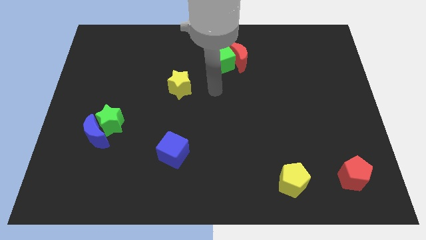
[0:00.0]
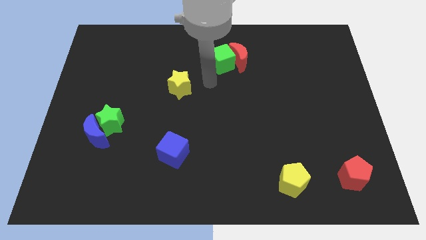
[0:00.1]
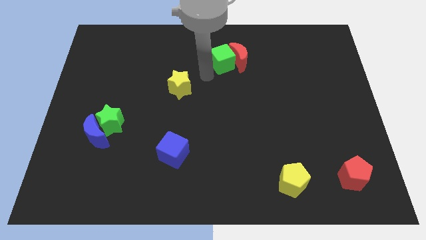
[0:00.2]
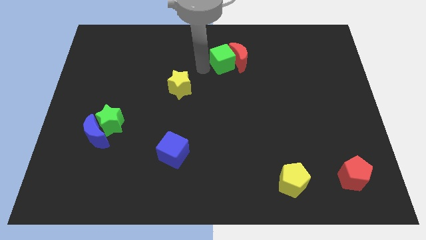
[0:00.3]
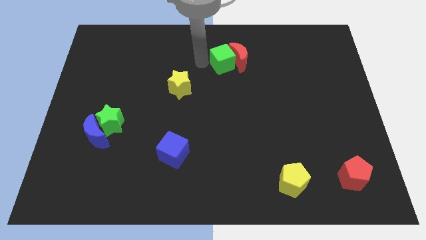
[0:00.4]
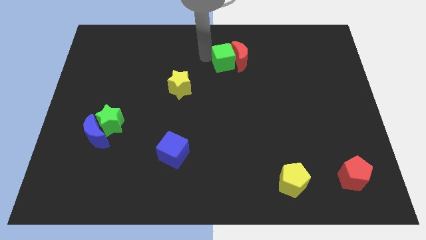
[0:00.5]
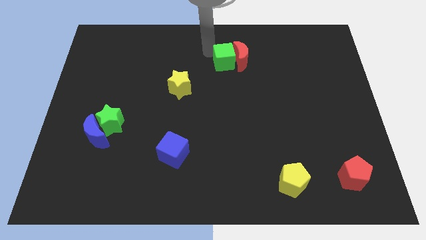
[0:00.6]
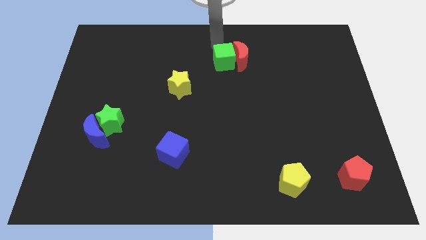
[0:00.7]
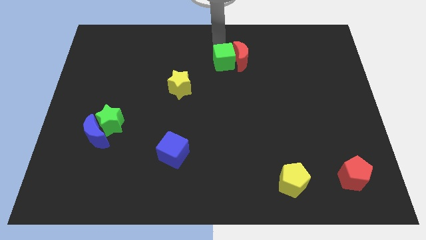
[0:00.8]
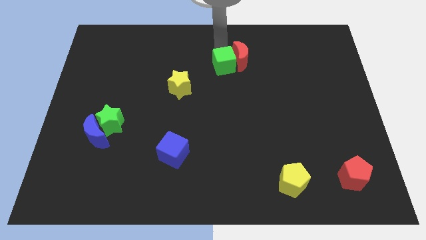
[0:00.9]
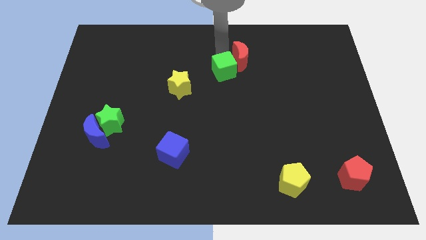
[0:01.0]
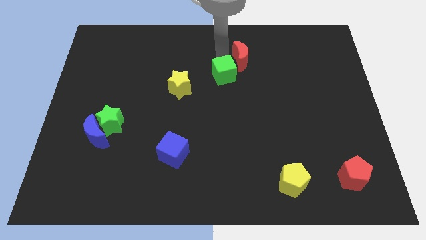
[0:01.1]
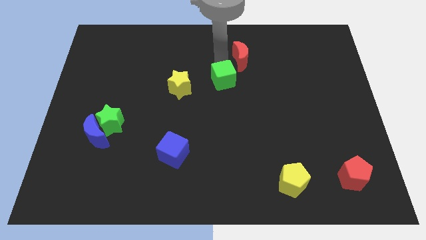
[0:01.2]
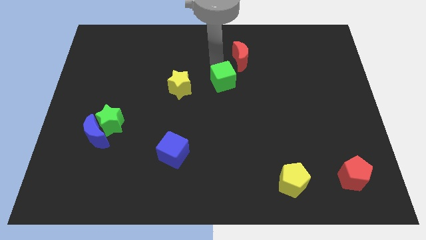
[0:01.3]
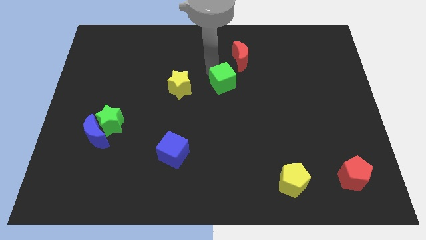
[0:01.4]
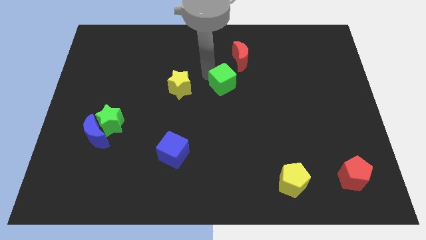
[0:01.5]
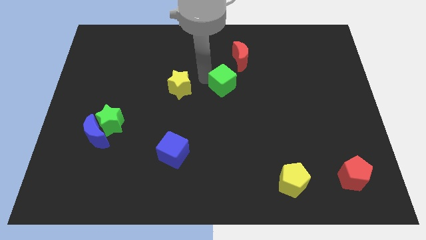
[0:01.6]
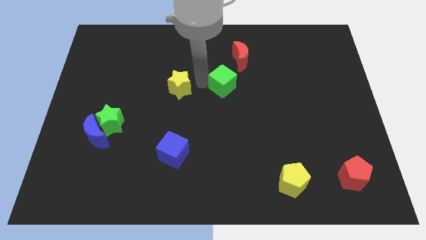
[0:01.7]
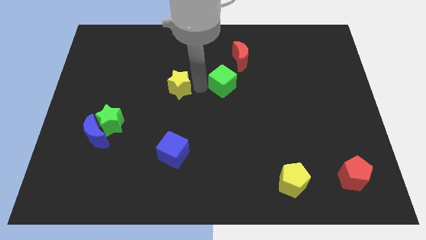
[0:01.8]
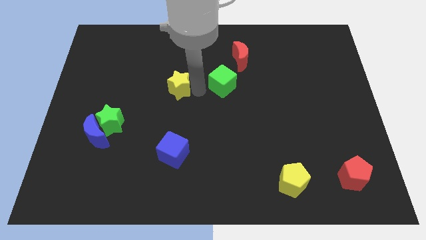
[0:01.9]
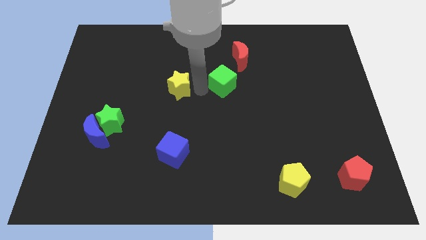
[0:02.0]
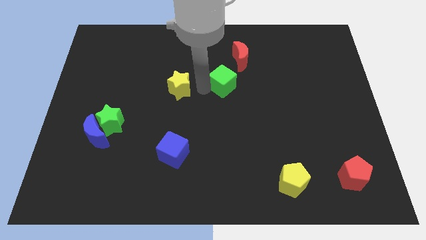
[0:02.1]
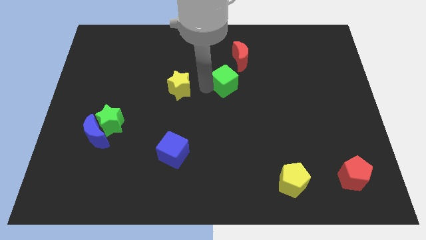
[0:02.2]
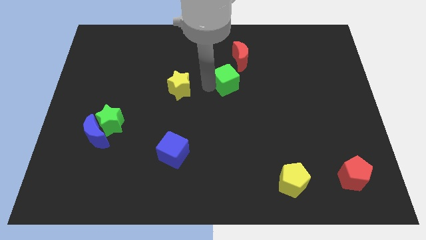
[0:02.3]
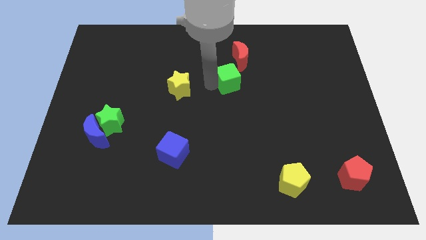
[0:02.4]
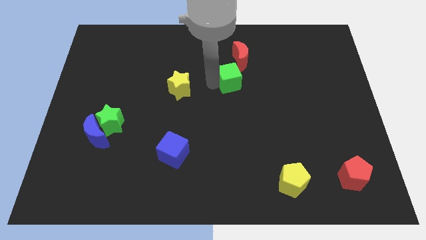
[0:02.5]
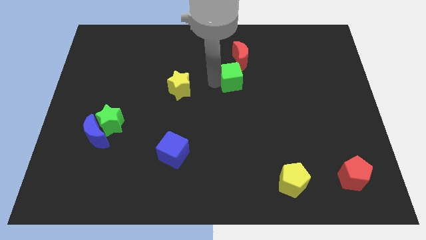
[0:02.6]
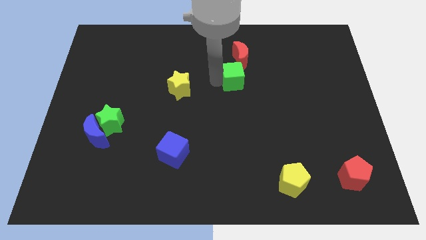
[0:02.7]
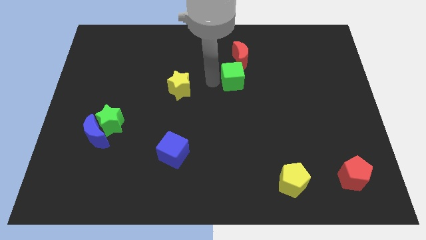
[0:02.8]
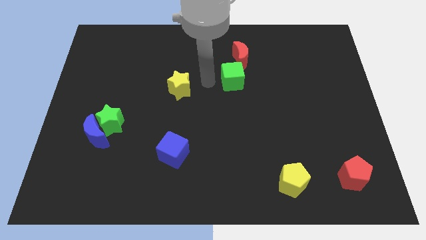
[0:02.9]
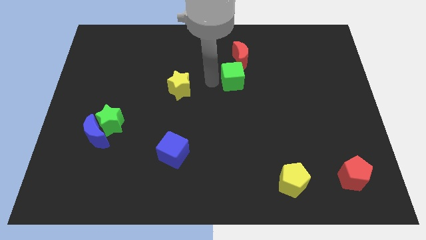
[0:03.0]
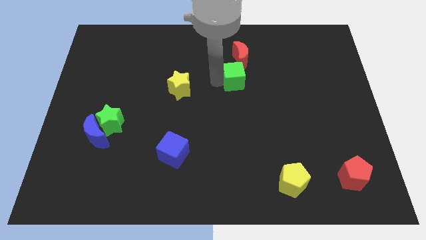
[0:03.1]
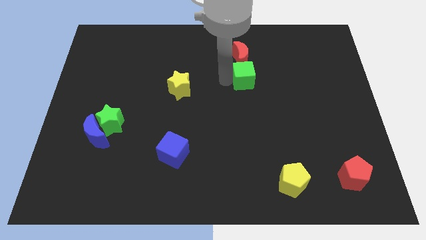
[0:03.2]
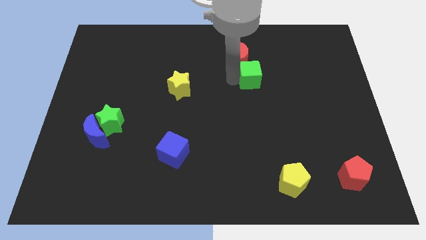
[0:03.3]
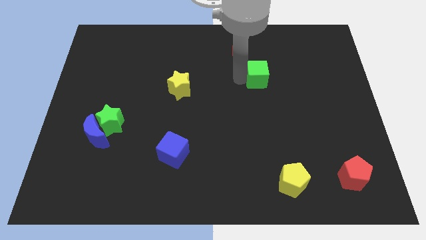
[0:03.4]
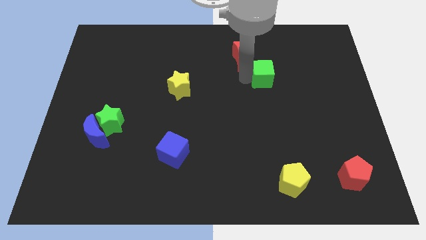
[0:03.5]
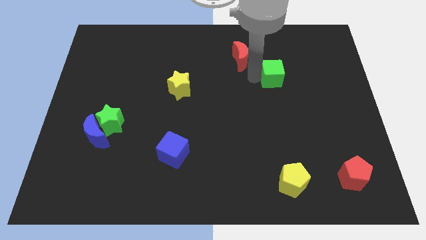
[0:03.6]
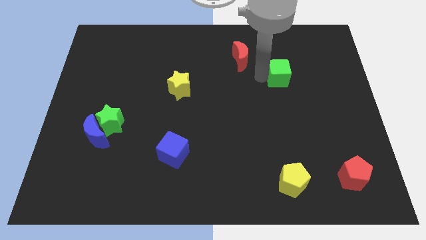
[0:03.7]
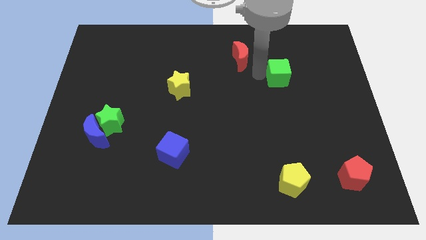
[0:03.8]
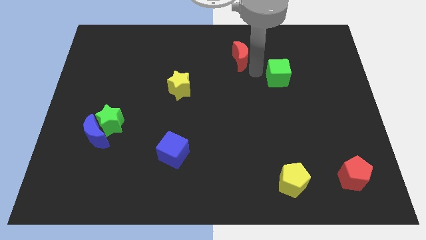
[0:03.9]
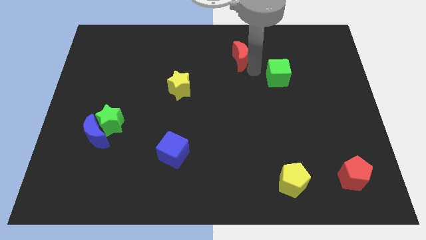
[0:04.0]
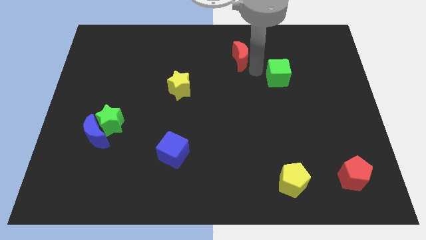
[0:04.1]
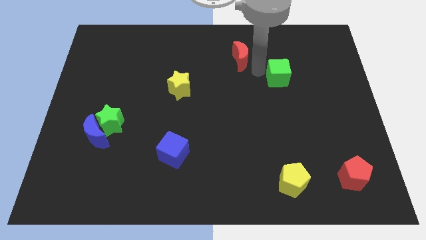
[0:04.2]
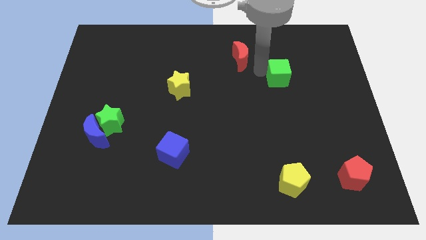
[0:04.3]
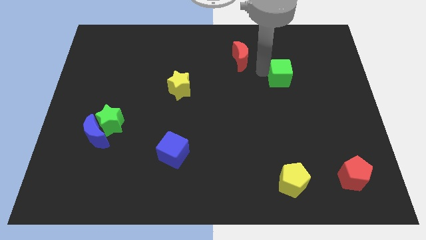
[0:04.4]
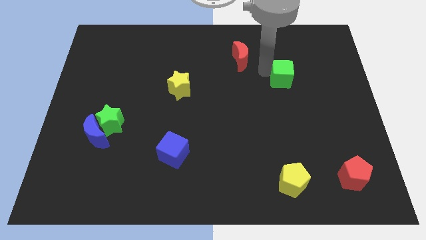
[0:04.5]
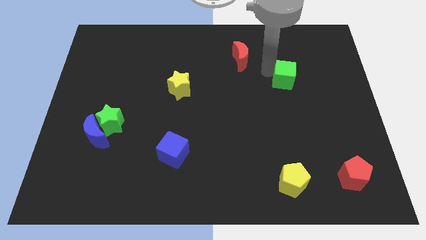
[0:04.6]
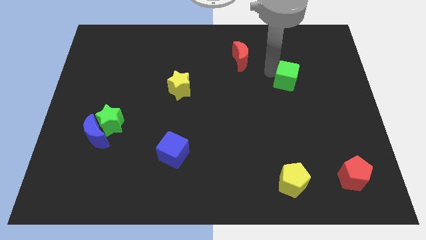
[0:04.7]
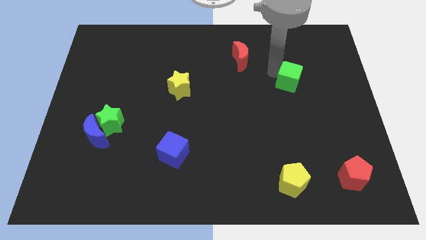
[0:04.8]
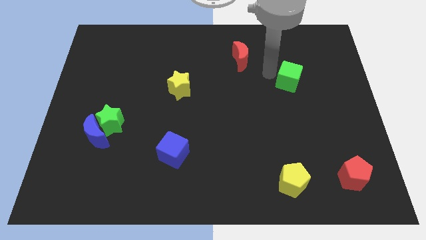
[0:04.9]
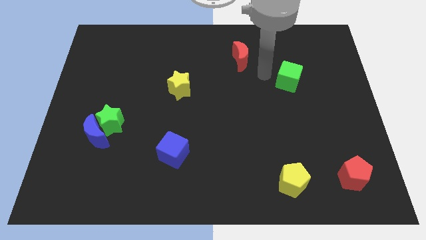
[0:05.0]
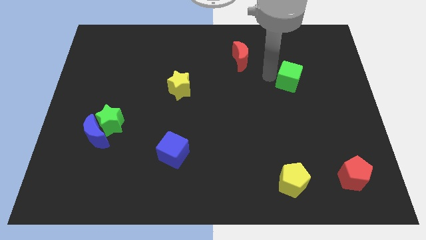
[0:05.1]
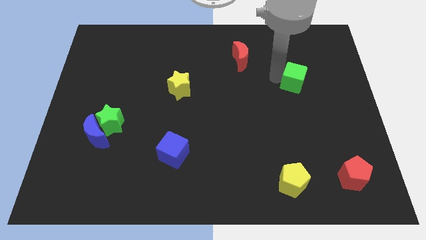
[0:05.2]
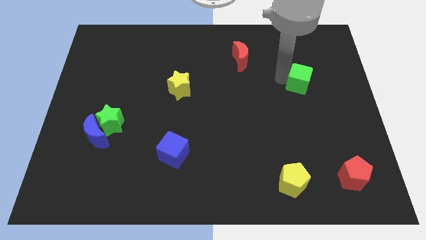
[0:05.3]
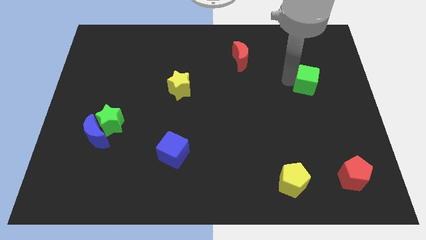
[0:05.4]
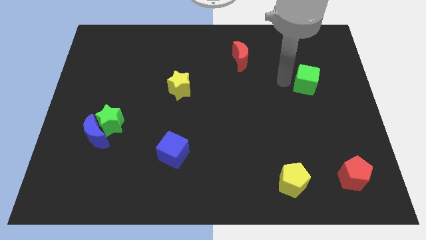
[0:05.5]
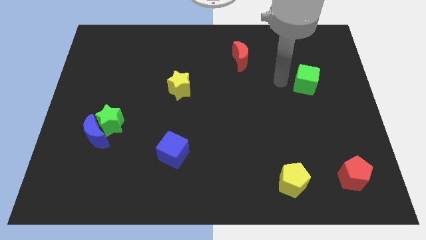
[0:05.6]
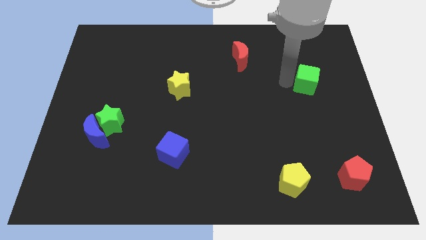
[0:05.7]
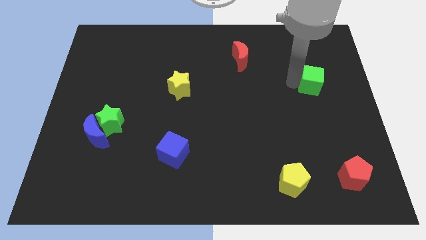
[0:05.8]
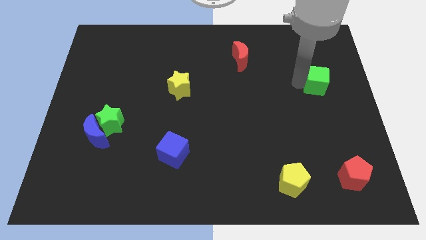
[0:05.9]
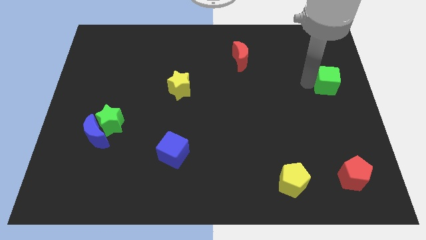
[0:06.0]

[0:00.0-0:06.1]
move the green cube to the right side

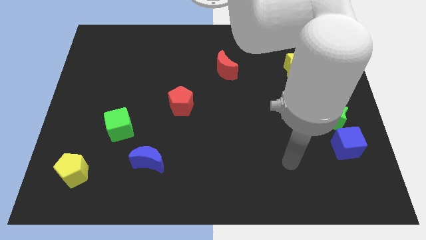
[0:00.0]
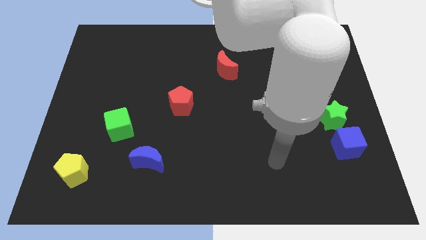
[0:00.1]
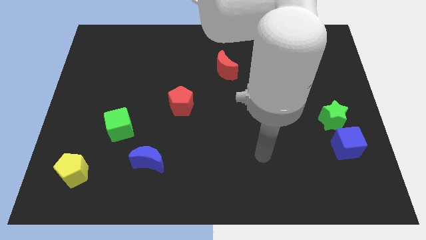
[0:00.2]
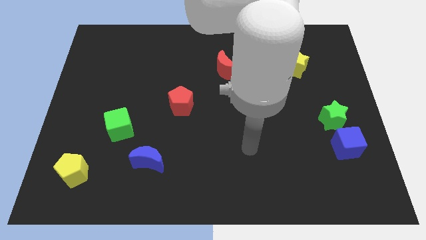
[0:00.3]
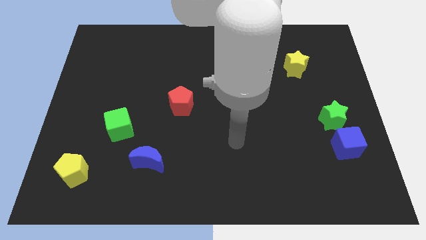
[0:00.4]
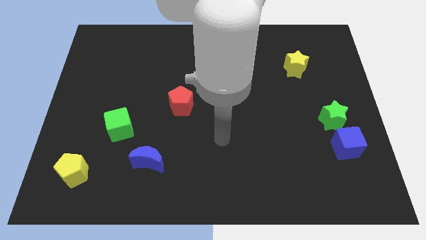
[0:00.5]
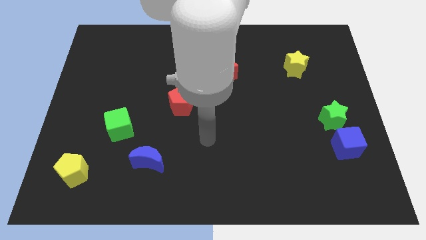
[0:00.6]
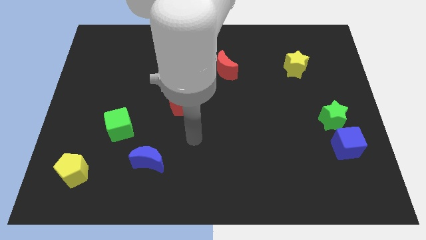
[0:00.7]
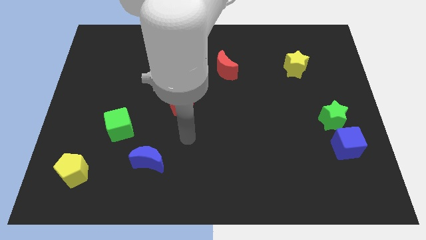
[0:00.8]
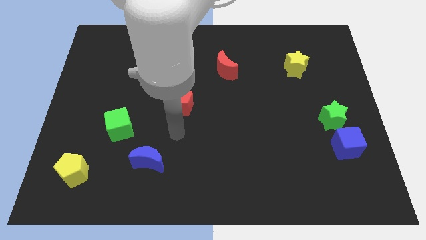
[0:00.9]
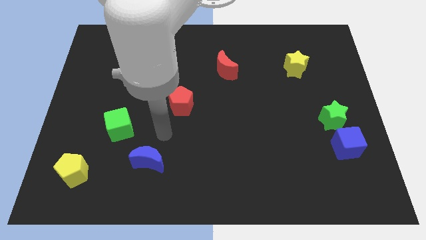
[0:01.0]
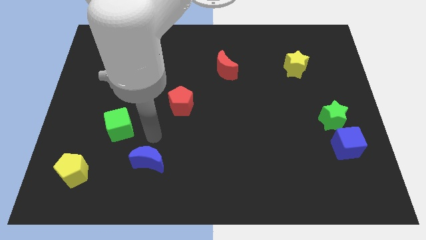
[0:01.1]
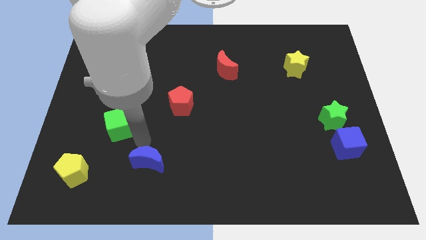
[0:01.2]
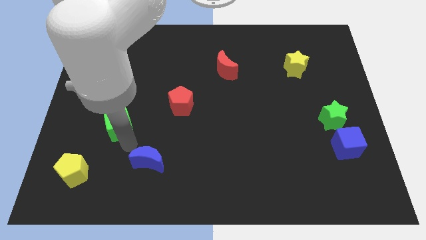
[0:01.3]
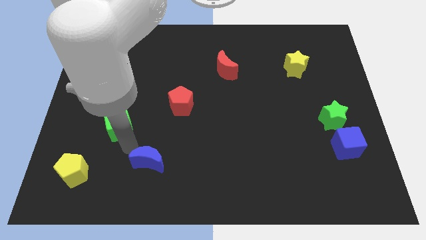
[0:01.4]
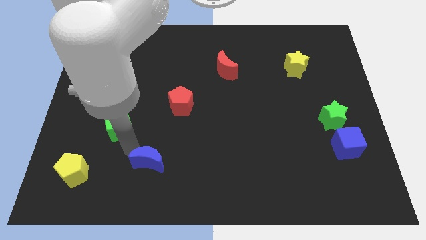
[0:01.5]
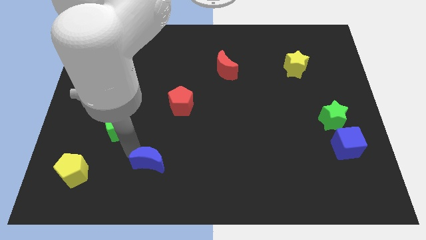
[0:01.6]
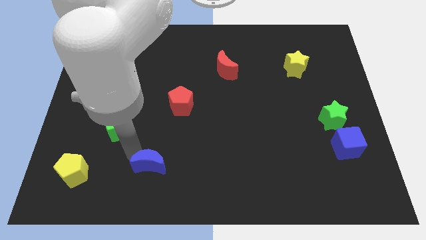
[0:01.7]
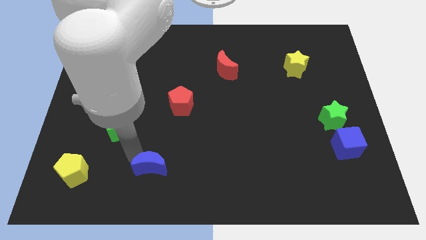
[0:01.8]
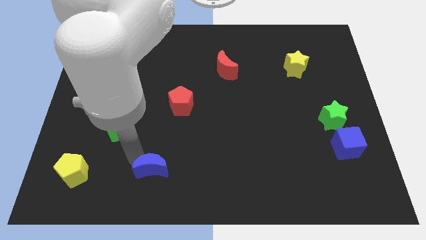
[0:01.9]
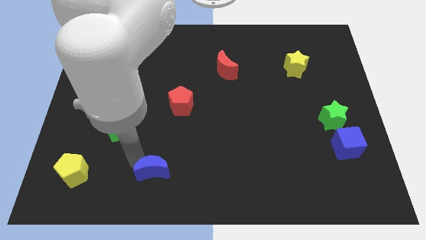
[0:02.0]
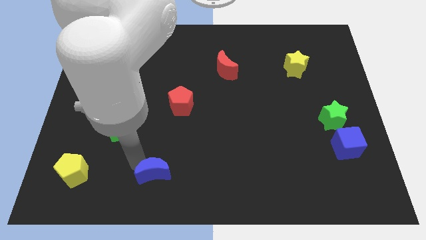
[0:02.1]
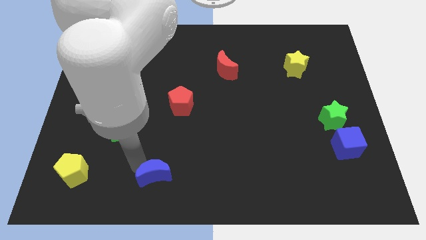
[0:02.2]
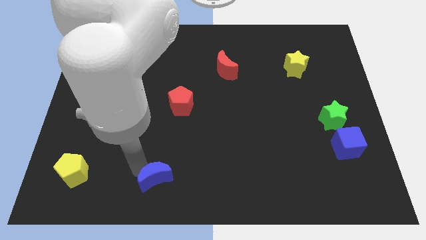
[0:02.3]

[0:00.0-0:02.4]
slide the blue moon to the bottom side
